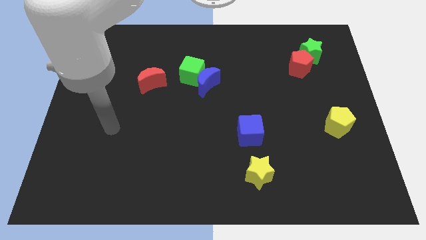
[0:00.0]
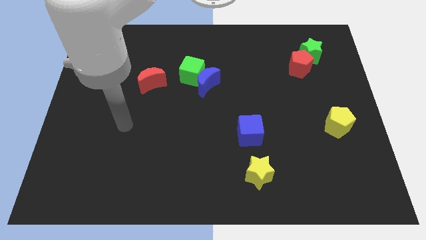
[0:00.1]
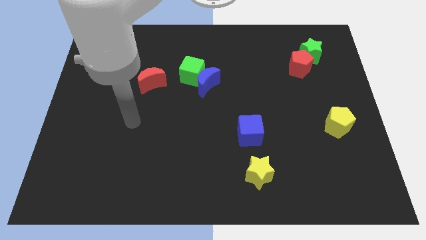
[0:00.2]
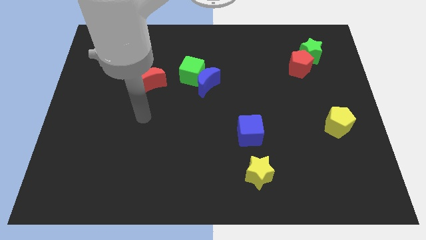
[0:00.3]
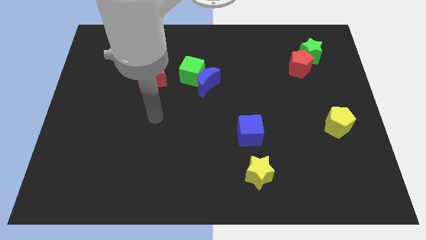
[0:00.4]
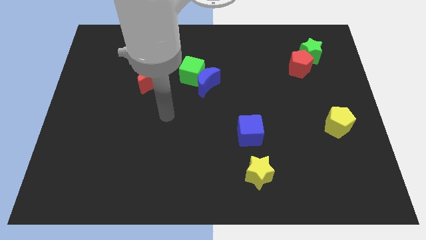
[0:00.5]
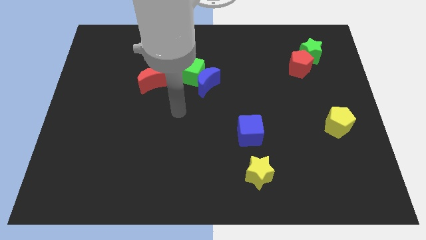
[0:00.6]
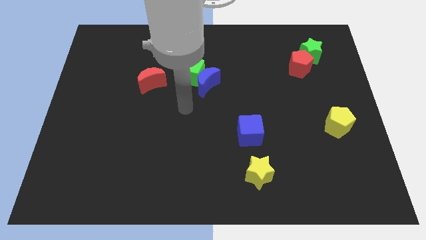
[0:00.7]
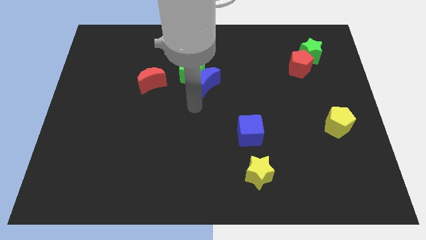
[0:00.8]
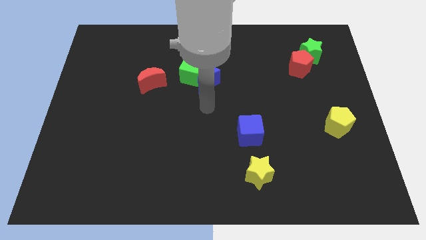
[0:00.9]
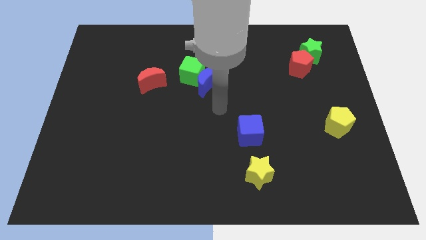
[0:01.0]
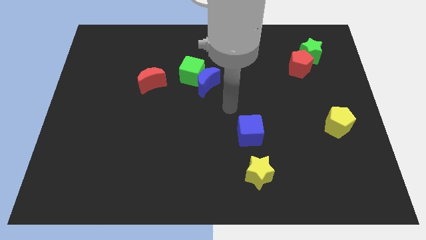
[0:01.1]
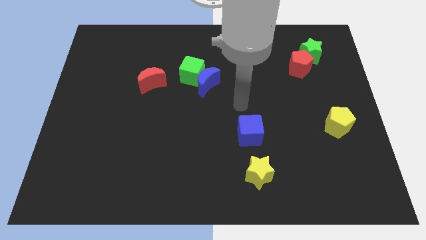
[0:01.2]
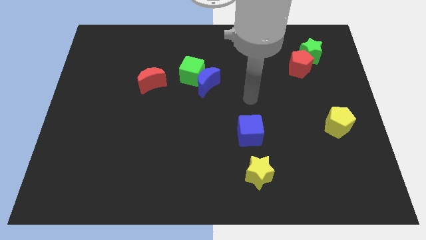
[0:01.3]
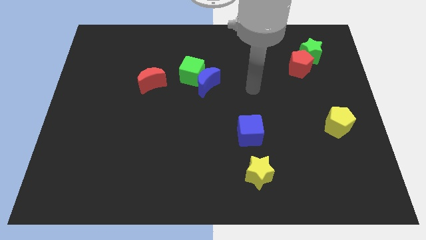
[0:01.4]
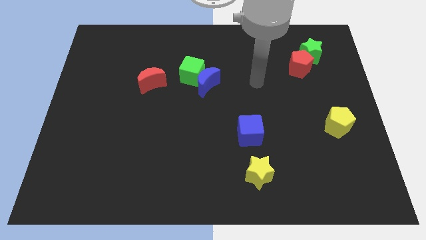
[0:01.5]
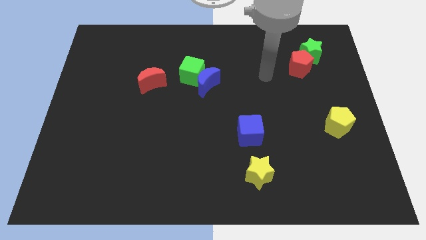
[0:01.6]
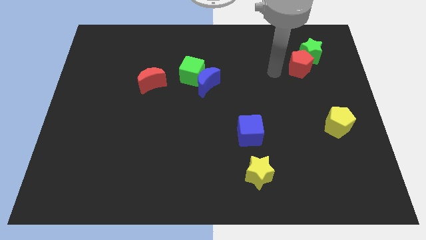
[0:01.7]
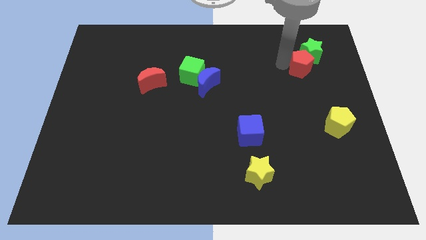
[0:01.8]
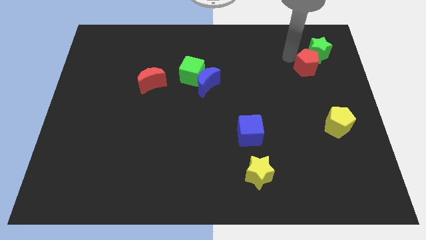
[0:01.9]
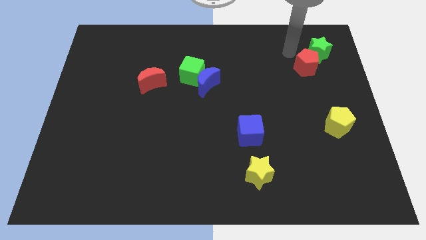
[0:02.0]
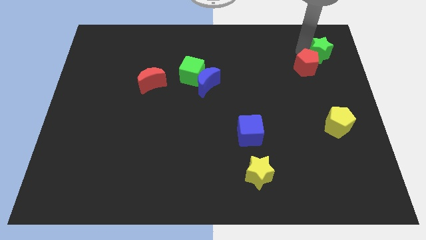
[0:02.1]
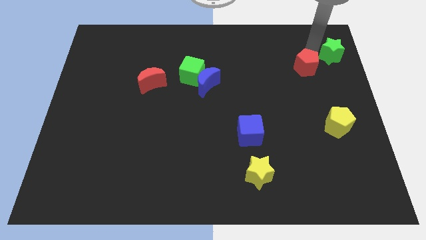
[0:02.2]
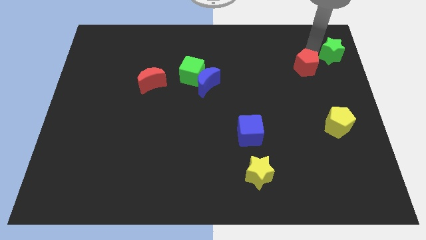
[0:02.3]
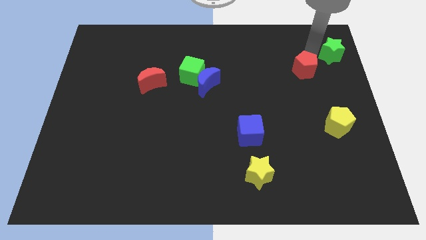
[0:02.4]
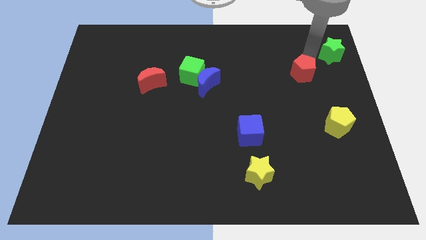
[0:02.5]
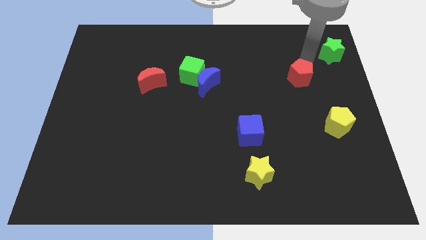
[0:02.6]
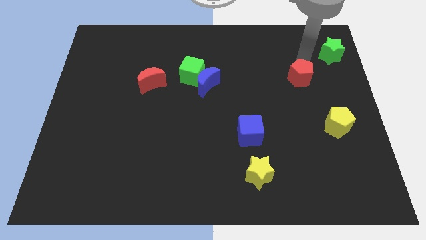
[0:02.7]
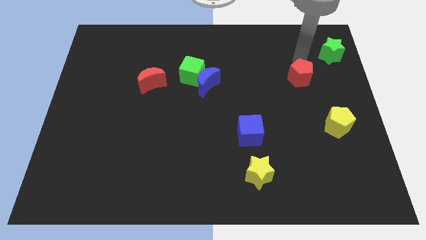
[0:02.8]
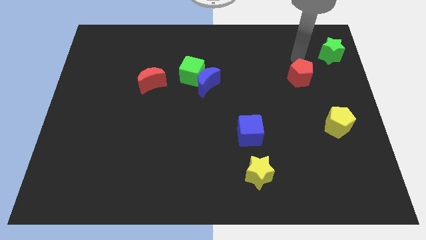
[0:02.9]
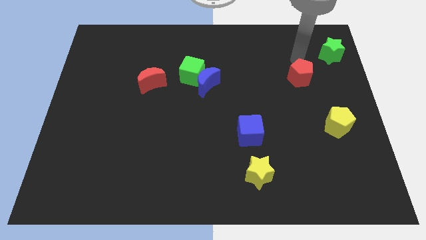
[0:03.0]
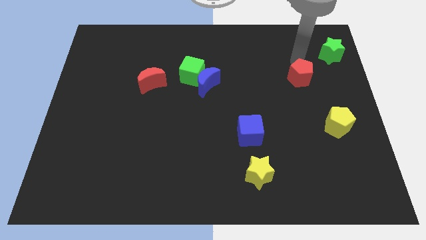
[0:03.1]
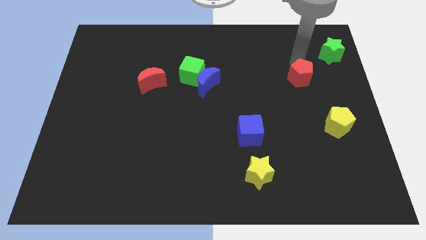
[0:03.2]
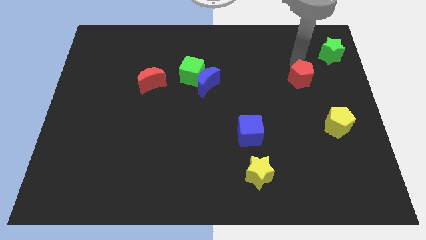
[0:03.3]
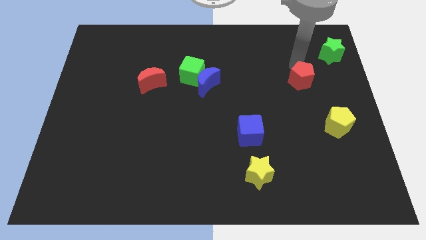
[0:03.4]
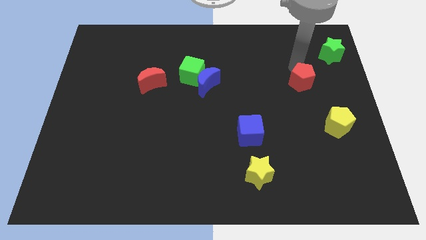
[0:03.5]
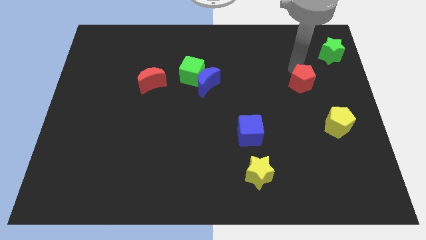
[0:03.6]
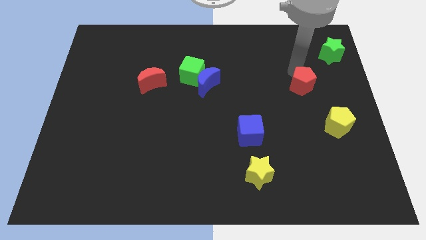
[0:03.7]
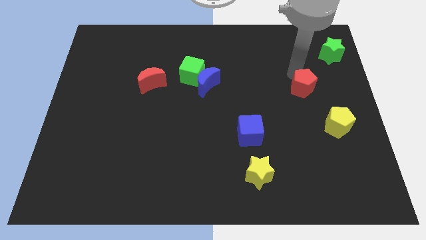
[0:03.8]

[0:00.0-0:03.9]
slightly move the red pentagon downwards

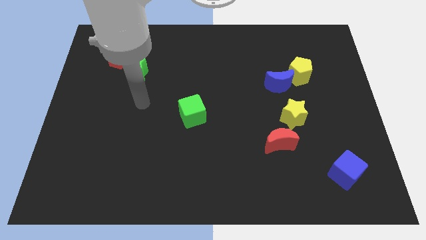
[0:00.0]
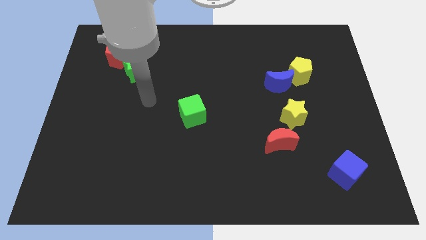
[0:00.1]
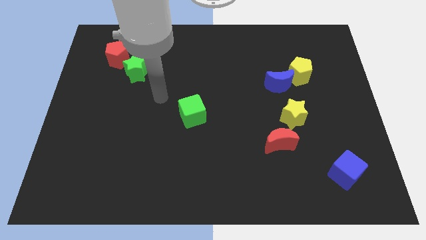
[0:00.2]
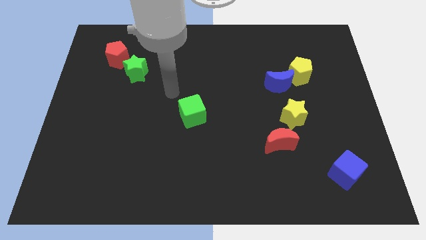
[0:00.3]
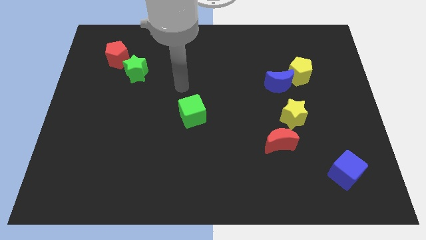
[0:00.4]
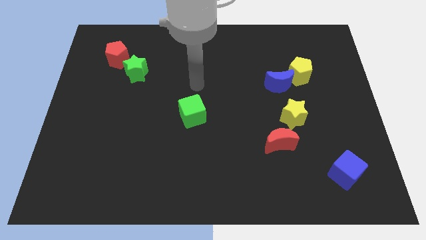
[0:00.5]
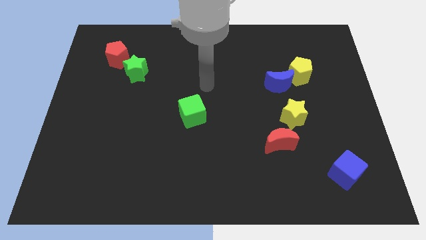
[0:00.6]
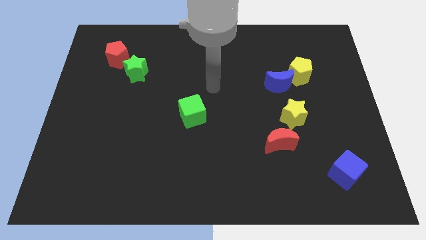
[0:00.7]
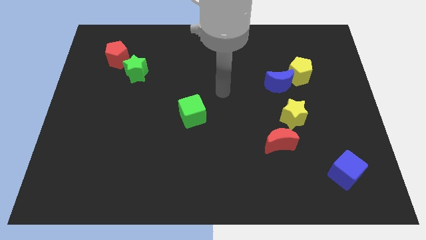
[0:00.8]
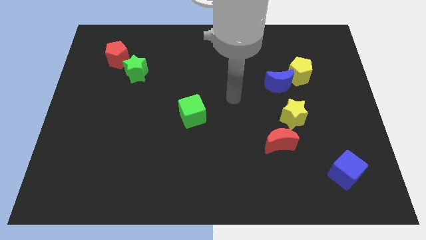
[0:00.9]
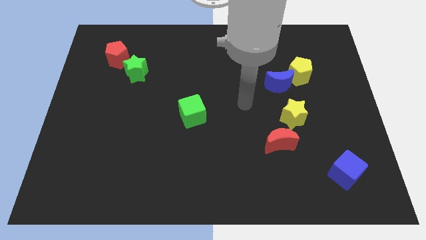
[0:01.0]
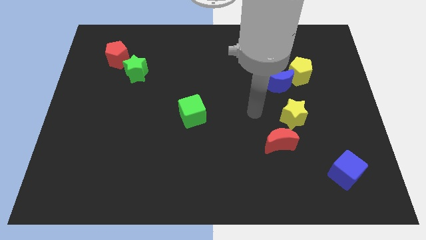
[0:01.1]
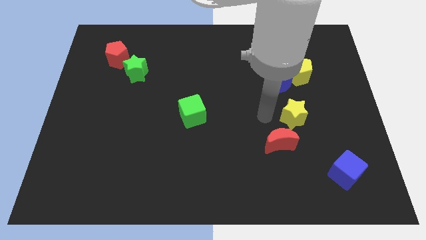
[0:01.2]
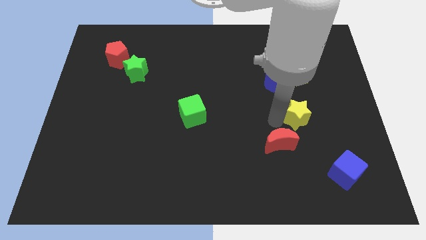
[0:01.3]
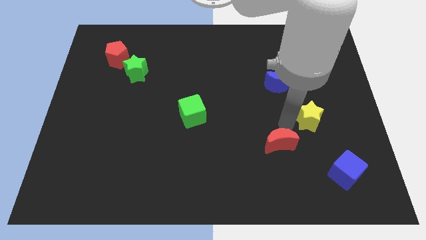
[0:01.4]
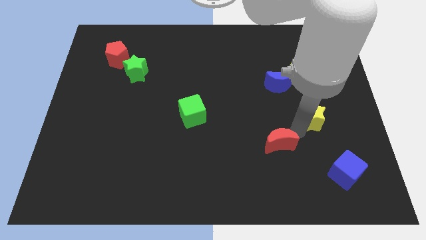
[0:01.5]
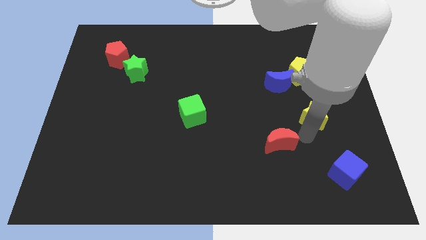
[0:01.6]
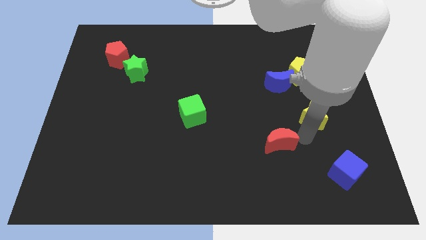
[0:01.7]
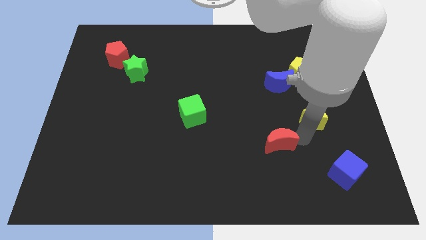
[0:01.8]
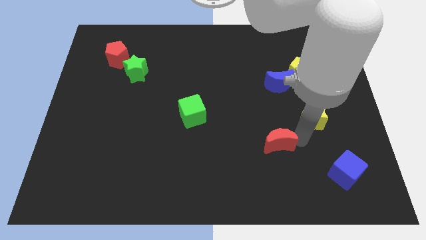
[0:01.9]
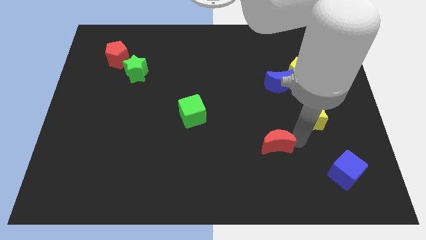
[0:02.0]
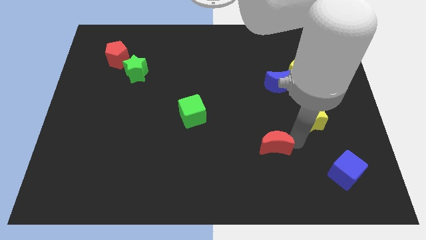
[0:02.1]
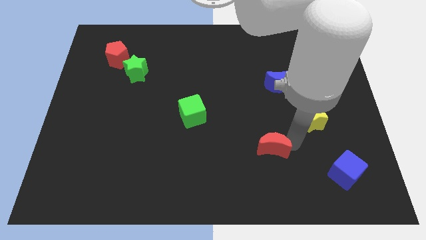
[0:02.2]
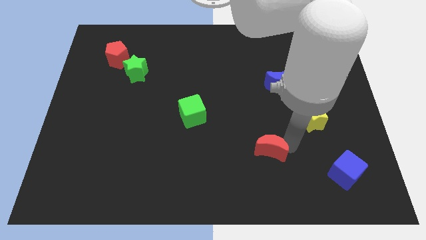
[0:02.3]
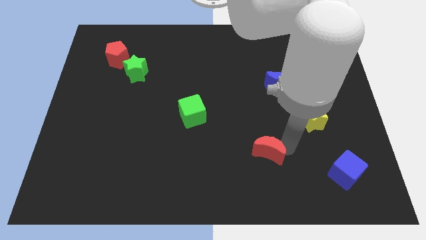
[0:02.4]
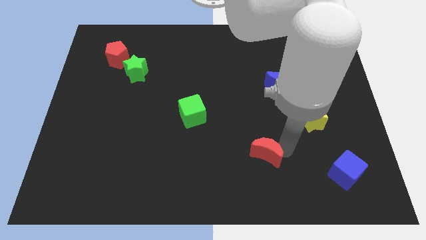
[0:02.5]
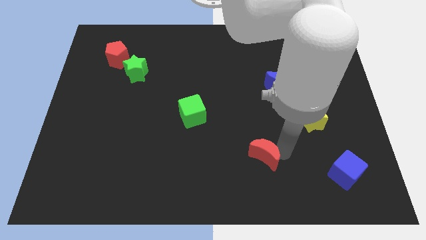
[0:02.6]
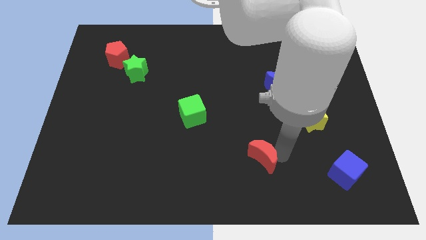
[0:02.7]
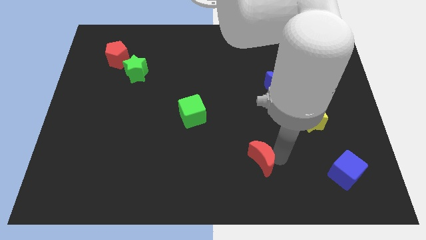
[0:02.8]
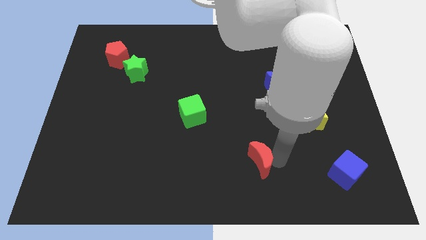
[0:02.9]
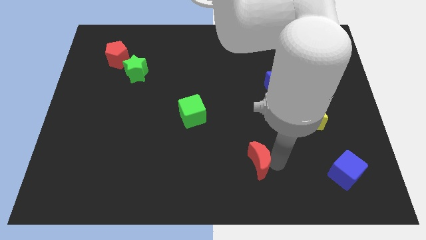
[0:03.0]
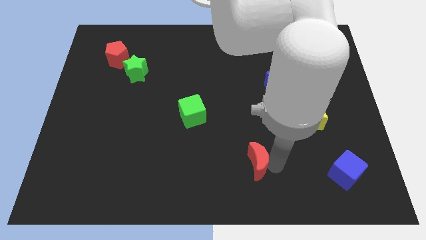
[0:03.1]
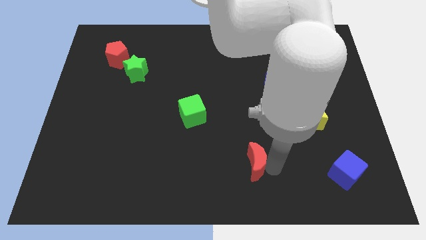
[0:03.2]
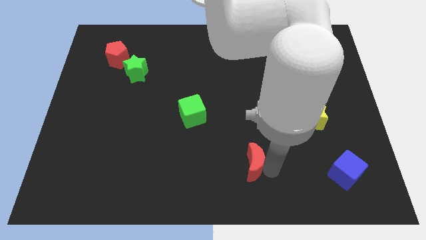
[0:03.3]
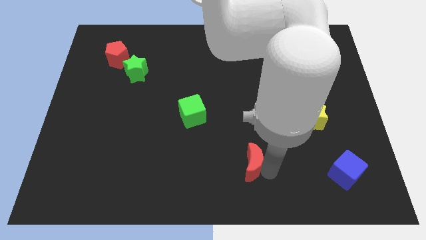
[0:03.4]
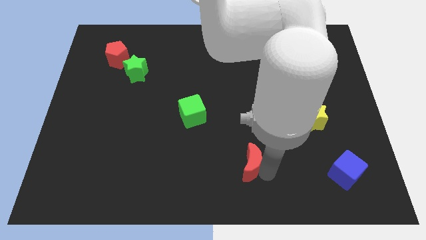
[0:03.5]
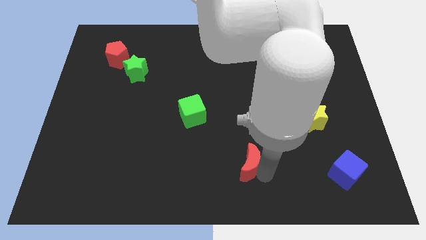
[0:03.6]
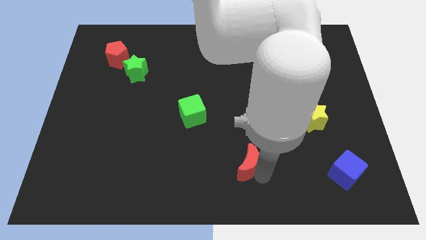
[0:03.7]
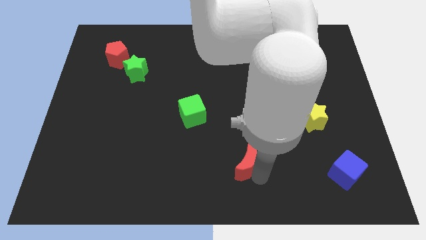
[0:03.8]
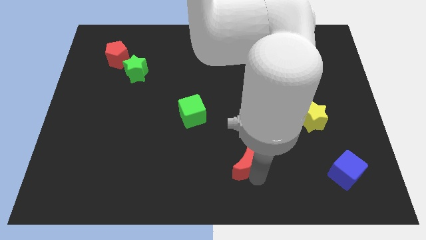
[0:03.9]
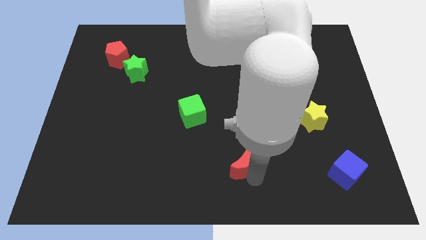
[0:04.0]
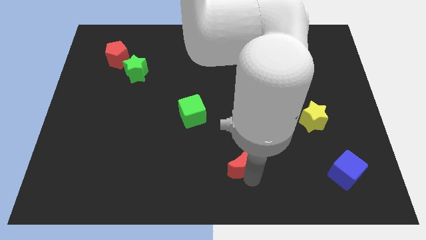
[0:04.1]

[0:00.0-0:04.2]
slide the red moon to the left slightly
